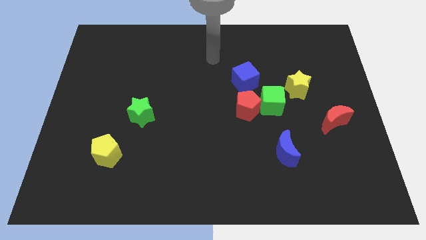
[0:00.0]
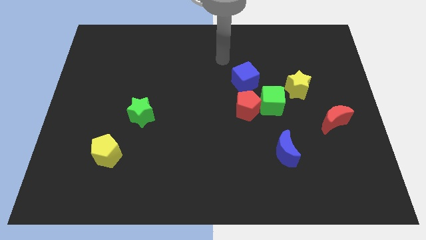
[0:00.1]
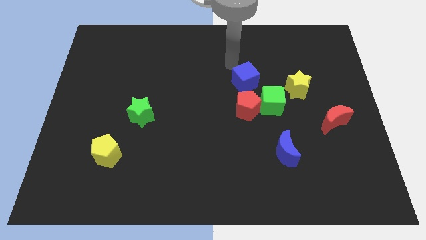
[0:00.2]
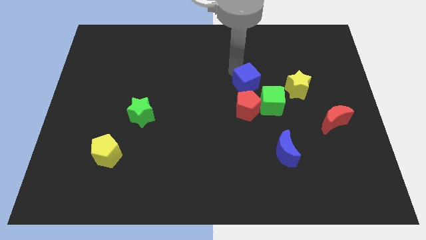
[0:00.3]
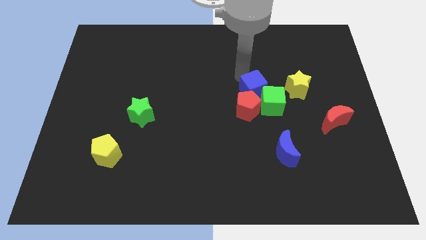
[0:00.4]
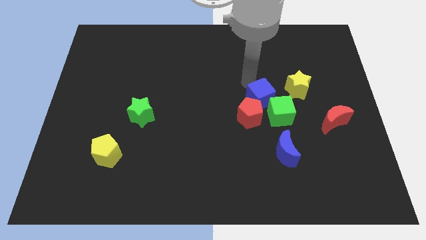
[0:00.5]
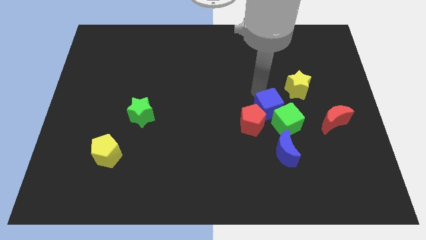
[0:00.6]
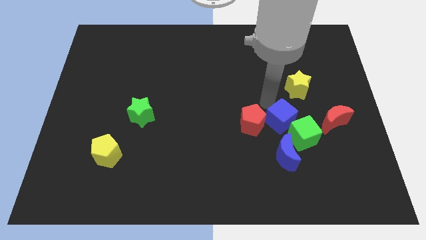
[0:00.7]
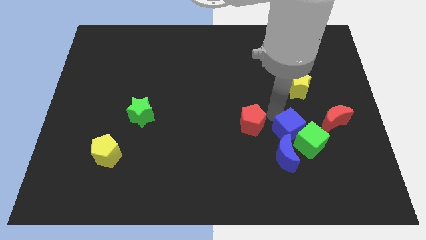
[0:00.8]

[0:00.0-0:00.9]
move the red pentagon away from the green cube and blue cube

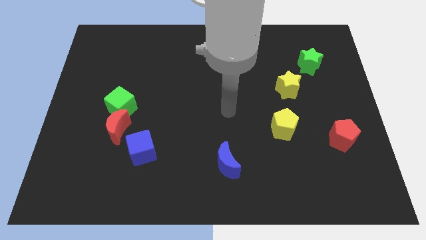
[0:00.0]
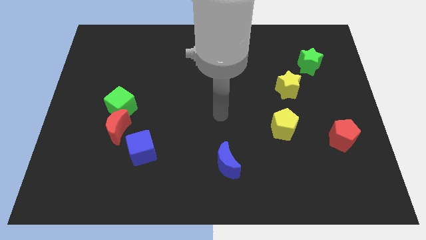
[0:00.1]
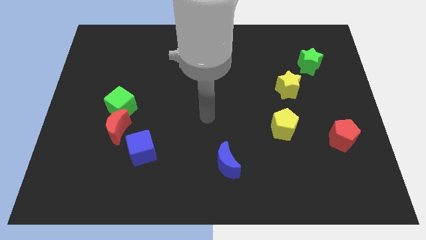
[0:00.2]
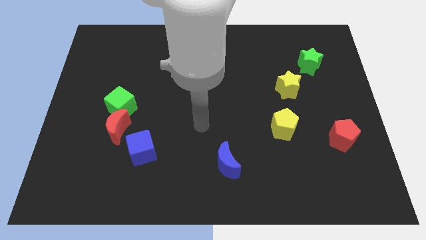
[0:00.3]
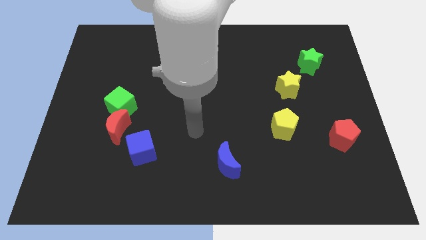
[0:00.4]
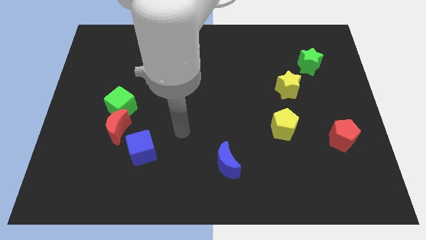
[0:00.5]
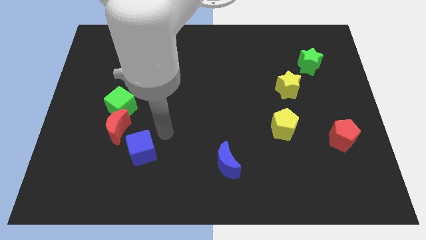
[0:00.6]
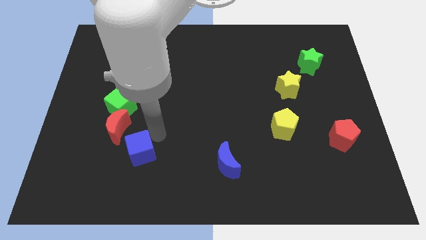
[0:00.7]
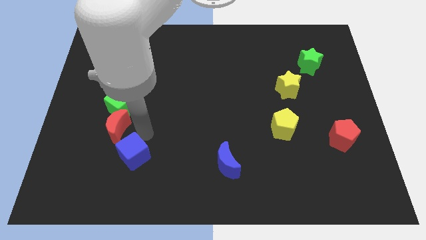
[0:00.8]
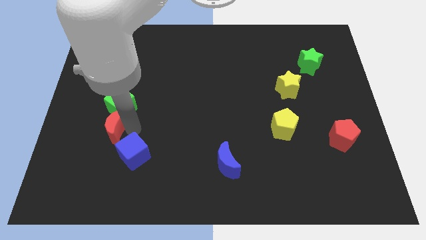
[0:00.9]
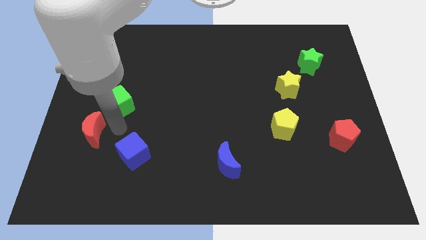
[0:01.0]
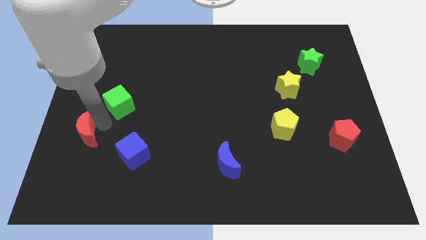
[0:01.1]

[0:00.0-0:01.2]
move the green cube away from the red moon

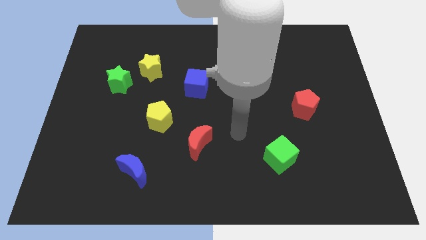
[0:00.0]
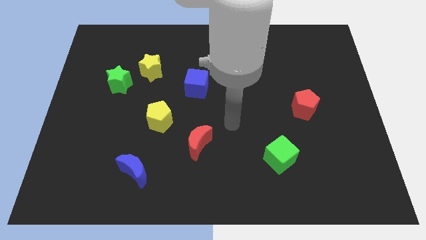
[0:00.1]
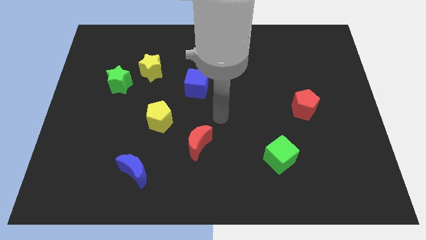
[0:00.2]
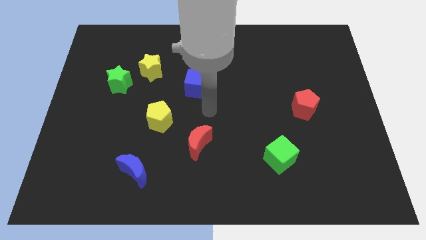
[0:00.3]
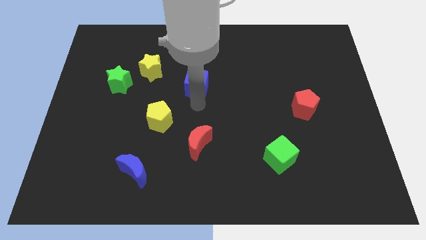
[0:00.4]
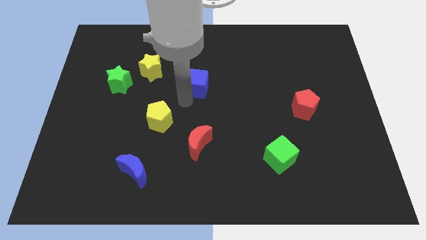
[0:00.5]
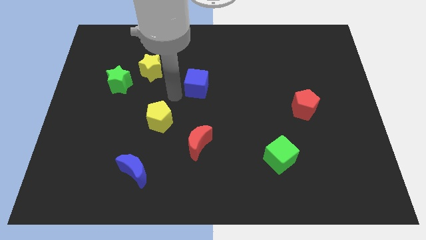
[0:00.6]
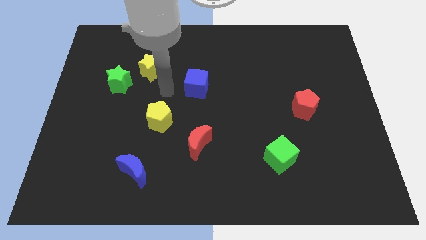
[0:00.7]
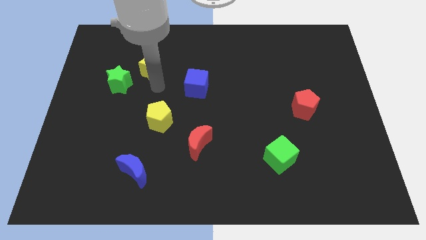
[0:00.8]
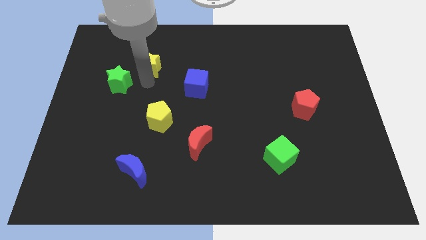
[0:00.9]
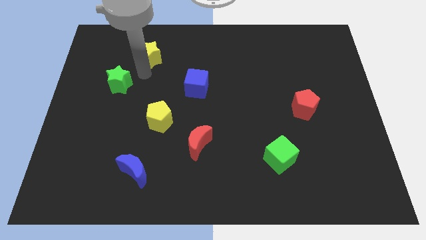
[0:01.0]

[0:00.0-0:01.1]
move the green star away from the yellow star

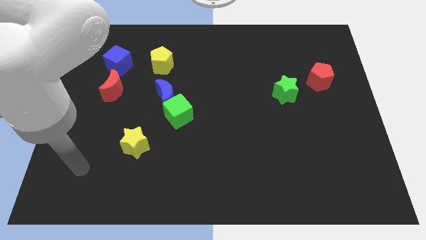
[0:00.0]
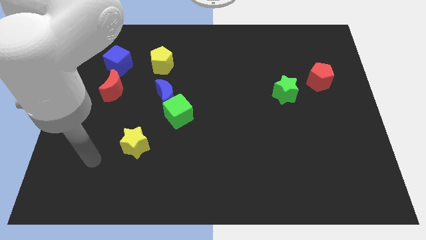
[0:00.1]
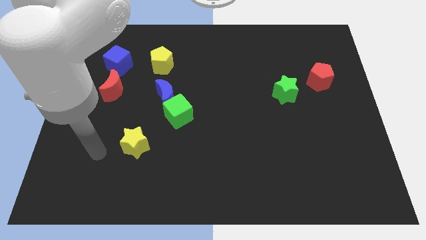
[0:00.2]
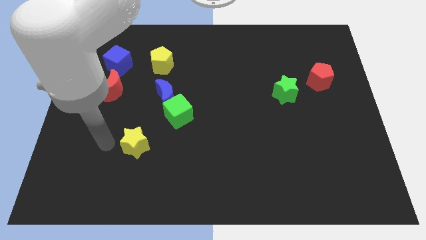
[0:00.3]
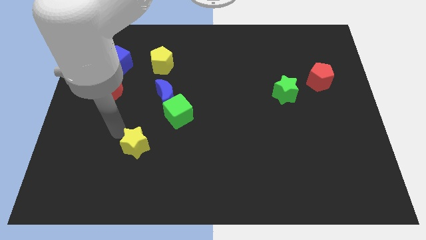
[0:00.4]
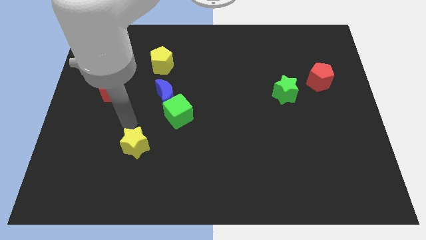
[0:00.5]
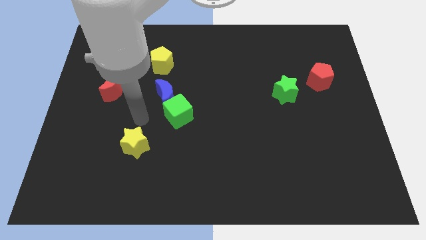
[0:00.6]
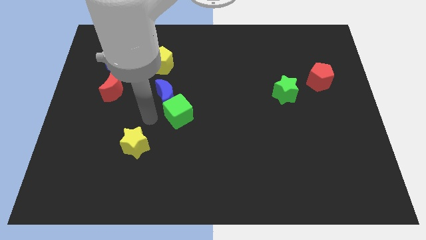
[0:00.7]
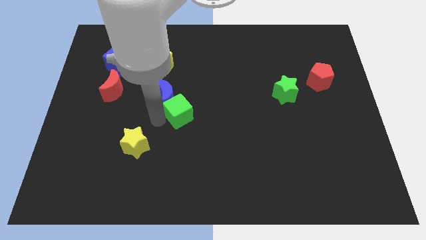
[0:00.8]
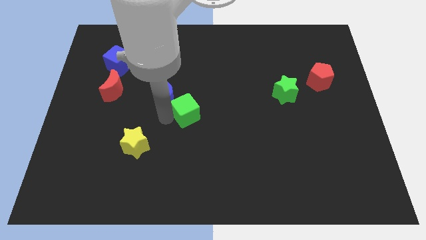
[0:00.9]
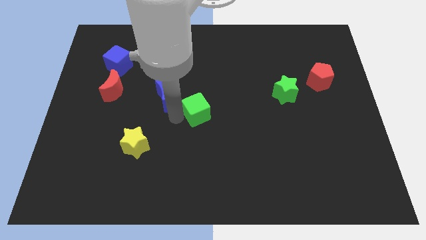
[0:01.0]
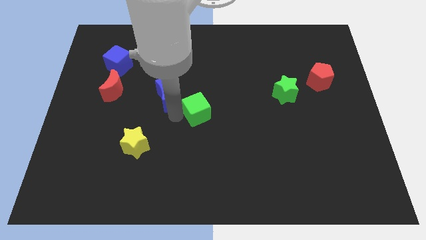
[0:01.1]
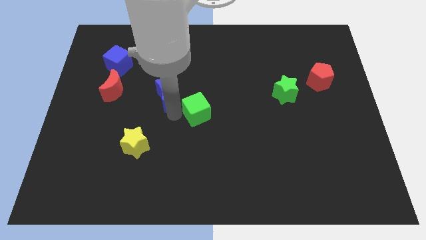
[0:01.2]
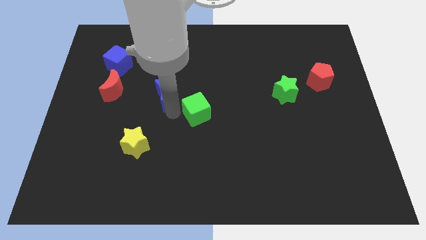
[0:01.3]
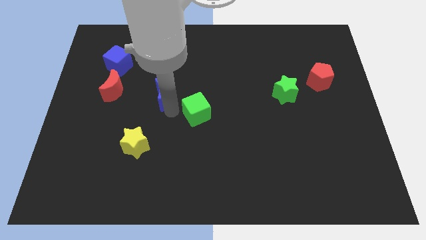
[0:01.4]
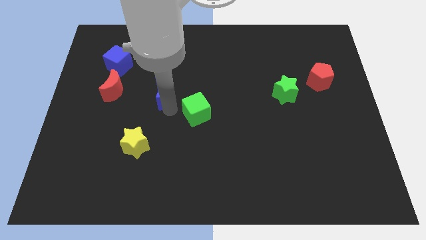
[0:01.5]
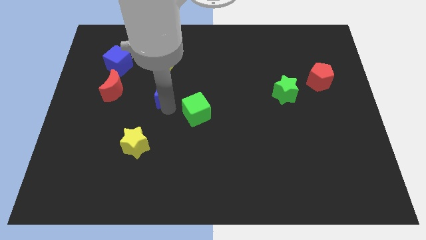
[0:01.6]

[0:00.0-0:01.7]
pull the blue moon apart from the green cube

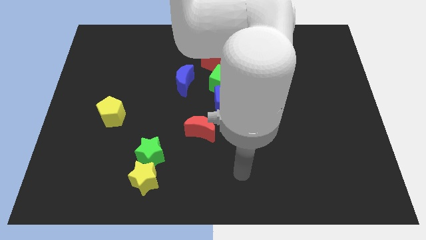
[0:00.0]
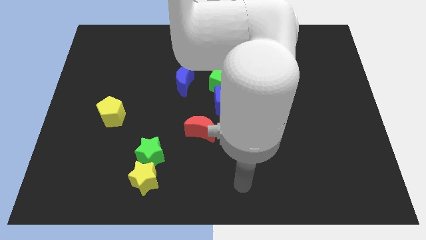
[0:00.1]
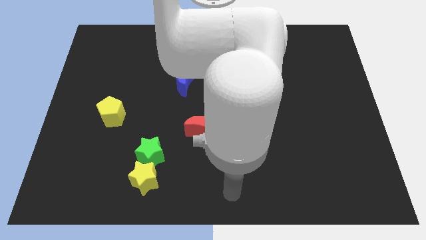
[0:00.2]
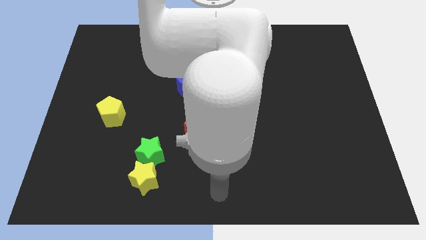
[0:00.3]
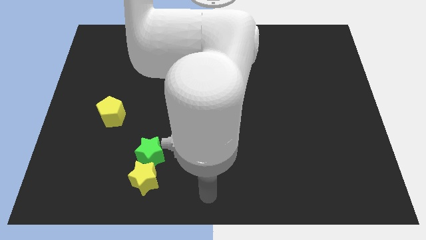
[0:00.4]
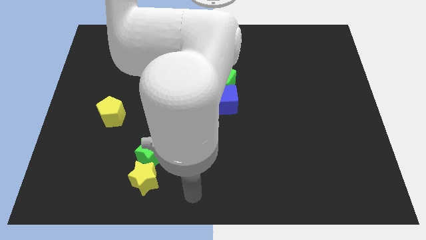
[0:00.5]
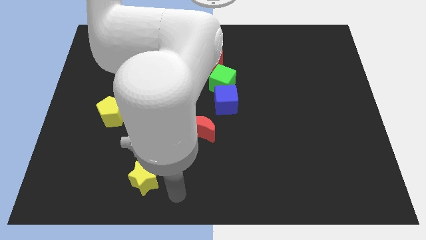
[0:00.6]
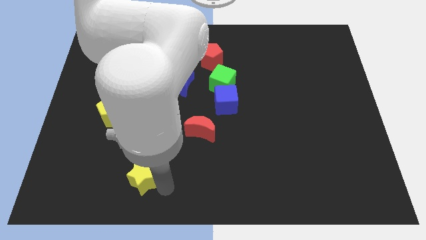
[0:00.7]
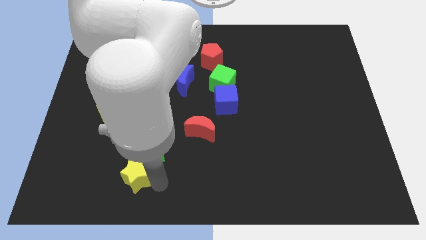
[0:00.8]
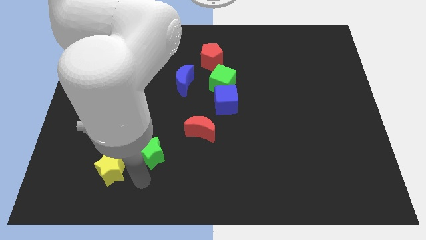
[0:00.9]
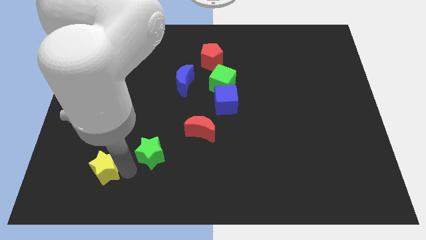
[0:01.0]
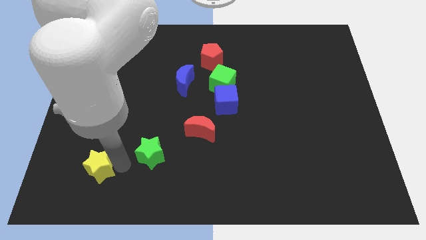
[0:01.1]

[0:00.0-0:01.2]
separate the green star from the yellow star

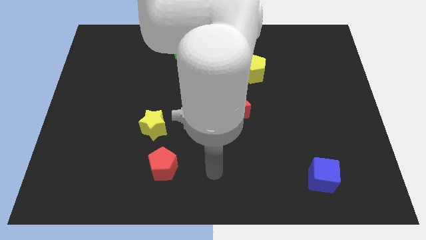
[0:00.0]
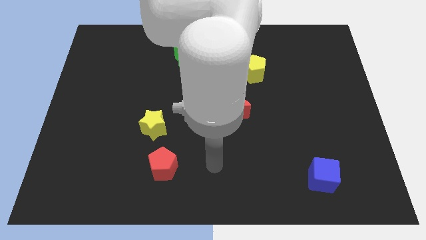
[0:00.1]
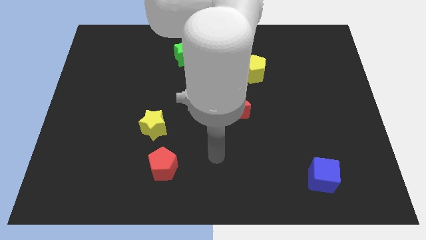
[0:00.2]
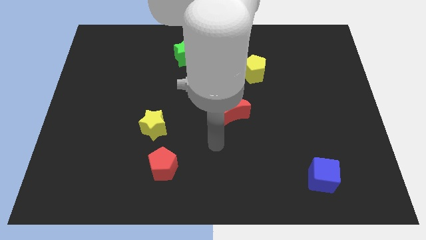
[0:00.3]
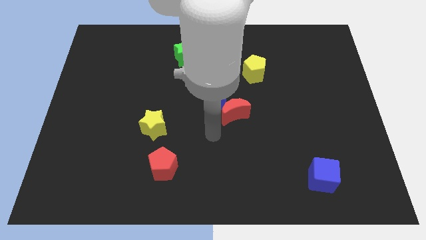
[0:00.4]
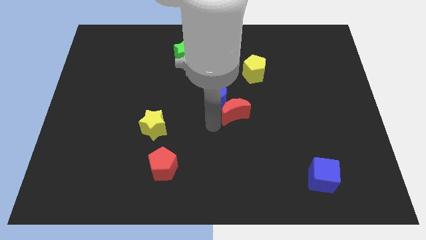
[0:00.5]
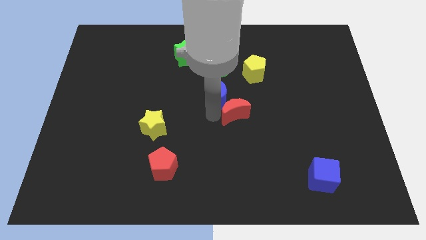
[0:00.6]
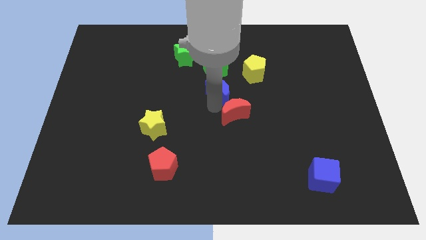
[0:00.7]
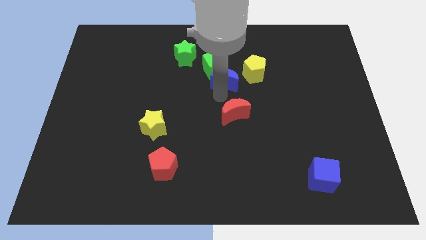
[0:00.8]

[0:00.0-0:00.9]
move the red moon away from the blue moon

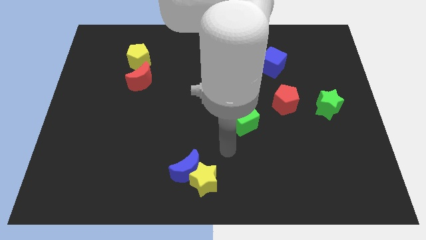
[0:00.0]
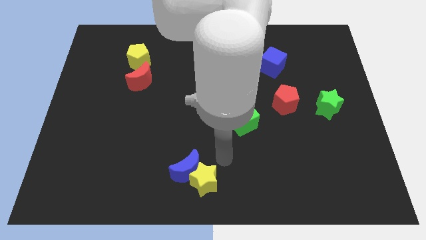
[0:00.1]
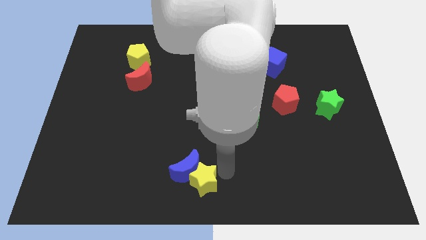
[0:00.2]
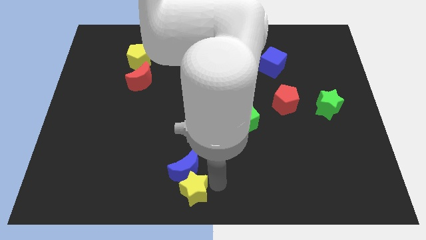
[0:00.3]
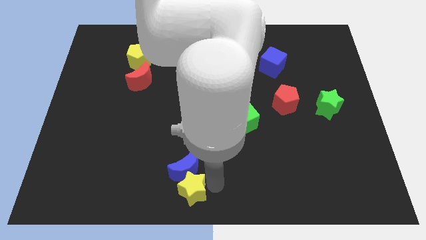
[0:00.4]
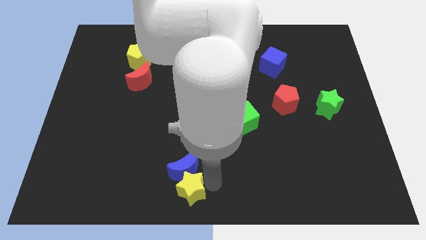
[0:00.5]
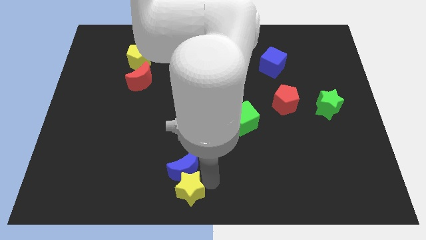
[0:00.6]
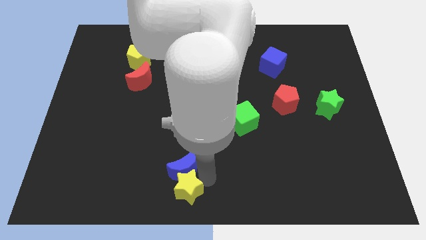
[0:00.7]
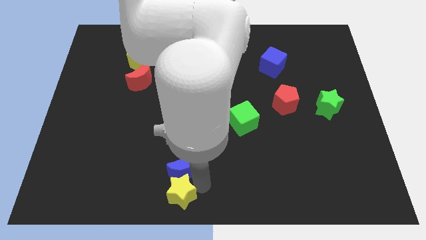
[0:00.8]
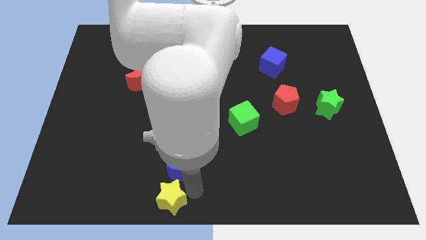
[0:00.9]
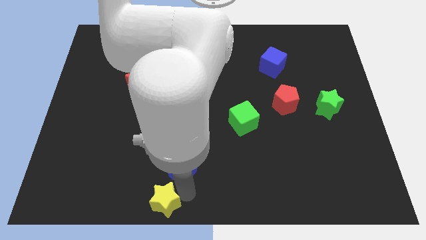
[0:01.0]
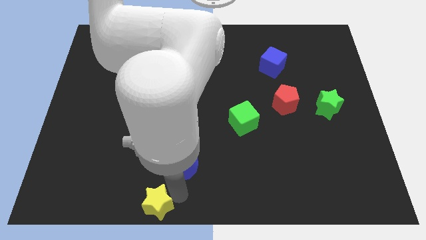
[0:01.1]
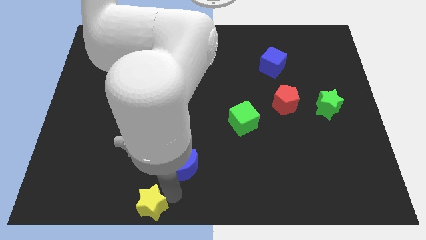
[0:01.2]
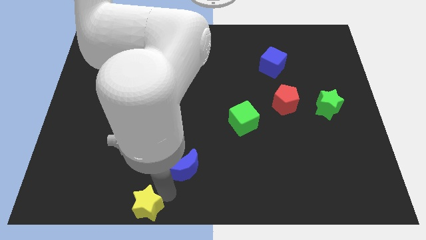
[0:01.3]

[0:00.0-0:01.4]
separate the blue moon from the yellow star

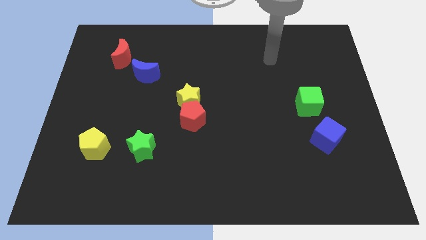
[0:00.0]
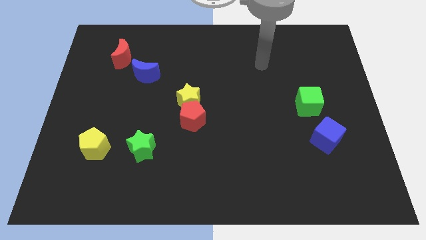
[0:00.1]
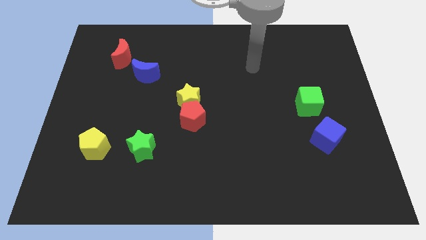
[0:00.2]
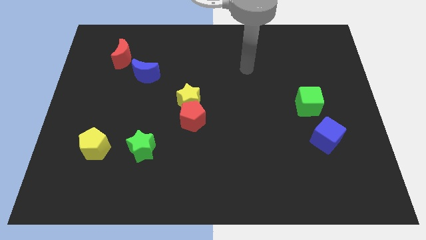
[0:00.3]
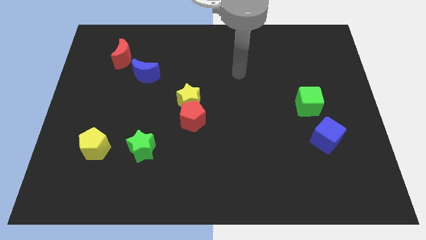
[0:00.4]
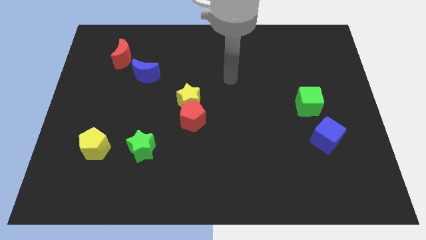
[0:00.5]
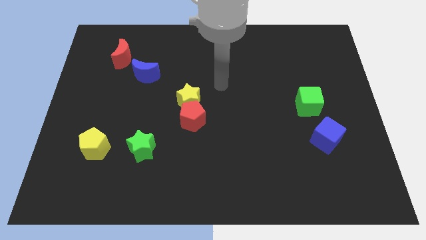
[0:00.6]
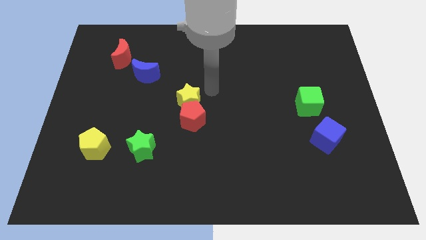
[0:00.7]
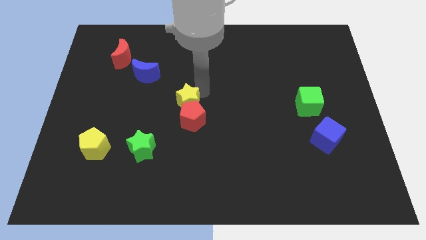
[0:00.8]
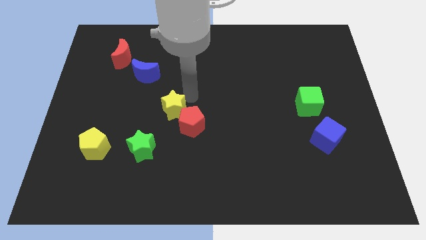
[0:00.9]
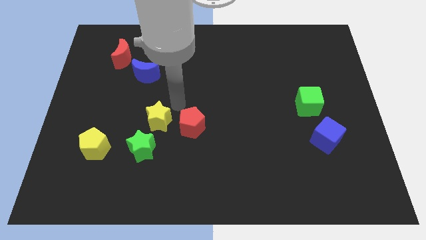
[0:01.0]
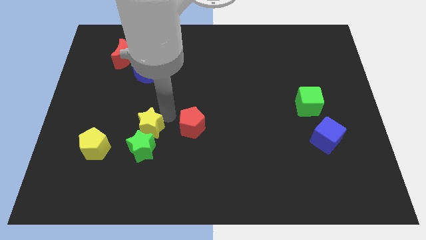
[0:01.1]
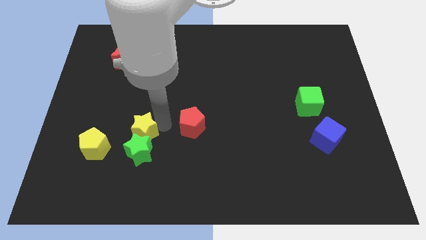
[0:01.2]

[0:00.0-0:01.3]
move the red pentagon away from the yellow star
